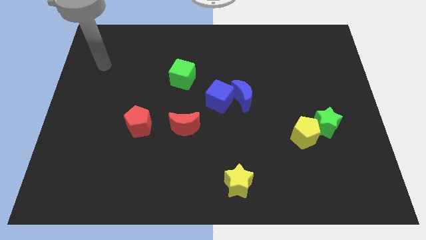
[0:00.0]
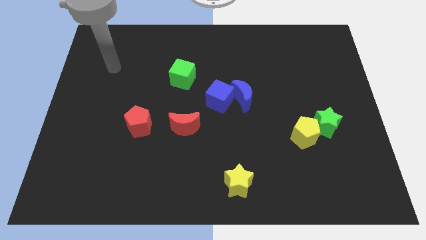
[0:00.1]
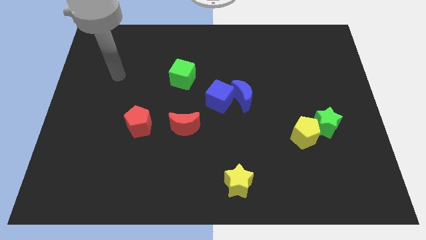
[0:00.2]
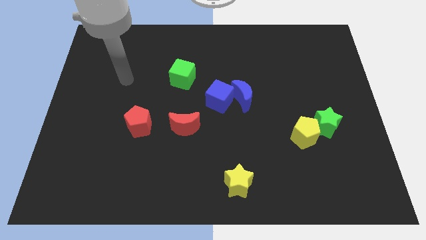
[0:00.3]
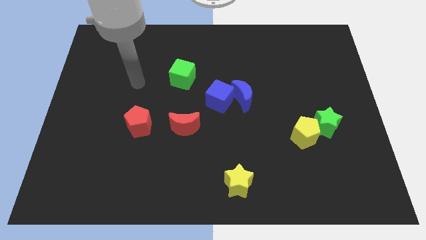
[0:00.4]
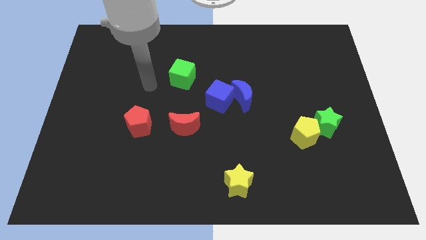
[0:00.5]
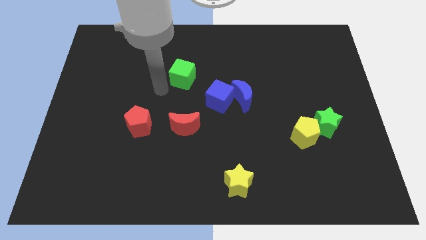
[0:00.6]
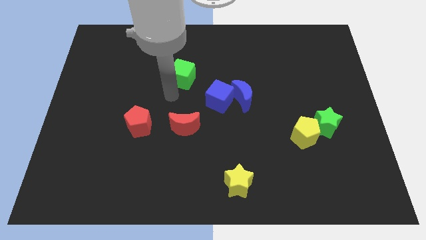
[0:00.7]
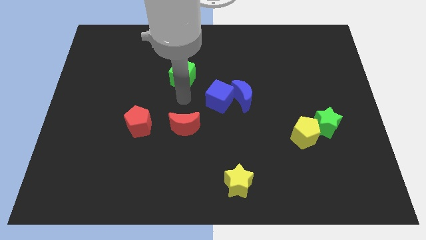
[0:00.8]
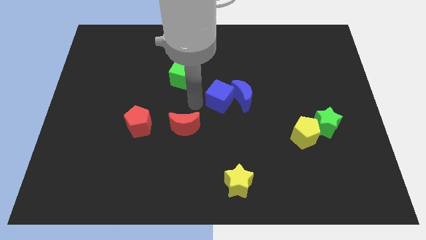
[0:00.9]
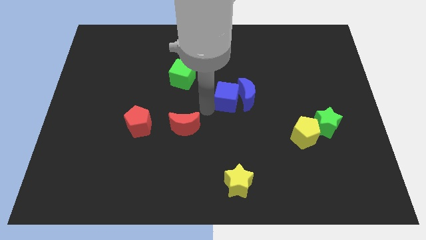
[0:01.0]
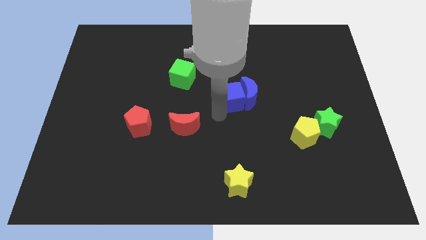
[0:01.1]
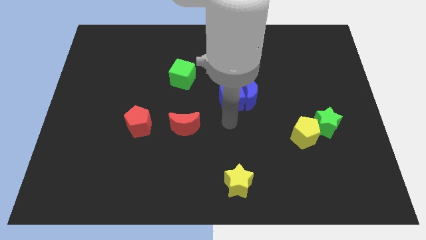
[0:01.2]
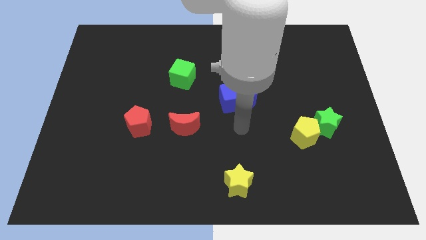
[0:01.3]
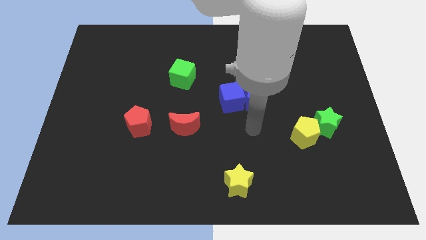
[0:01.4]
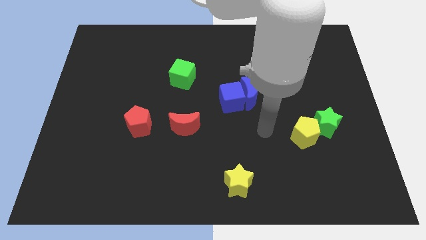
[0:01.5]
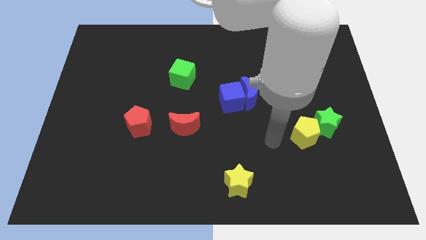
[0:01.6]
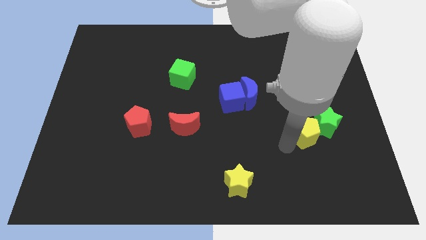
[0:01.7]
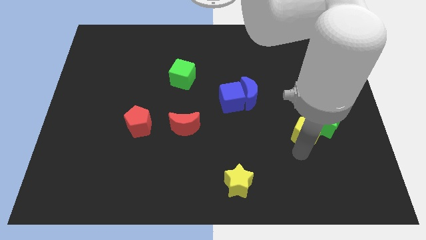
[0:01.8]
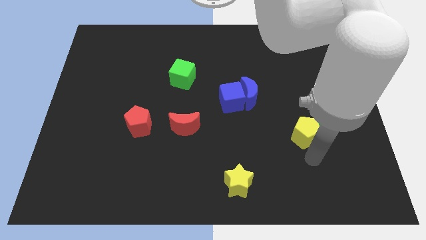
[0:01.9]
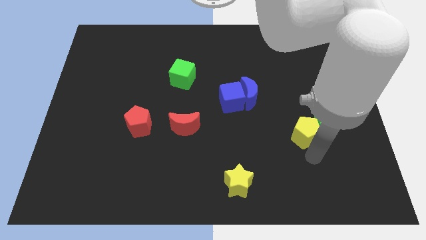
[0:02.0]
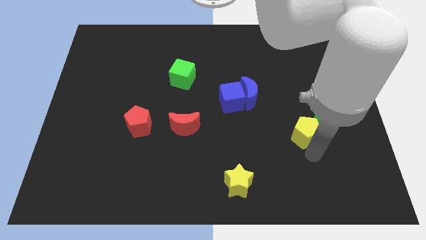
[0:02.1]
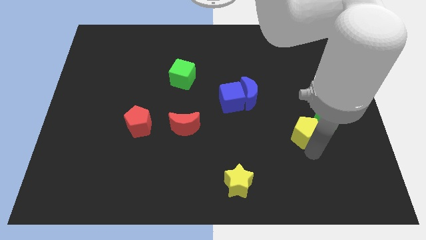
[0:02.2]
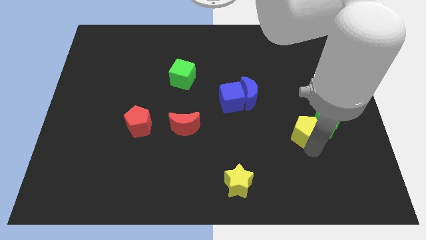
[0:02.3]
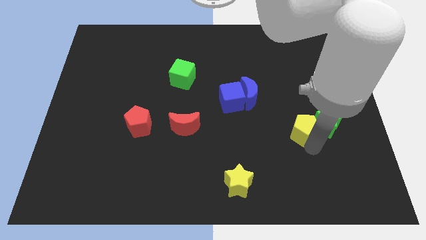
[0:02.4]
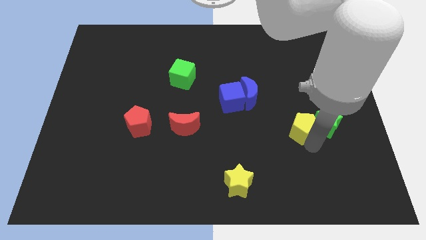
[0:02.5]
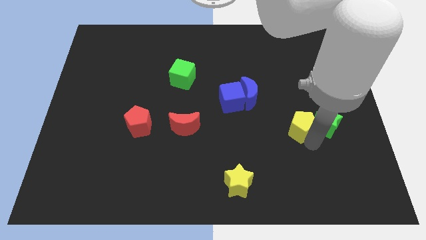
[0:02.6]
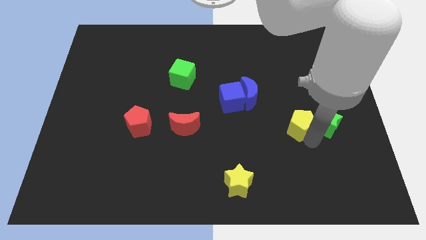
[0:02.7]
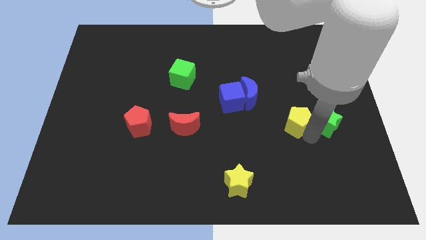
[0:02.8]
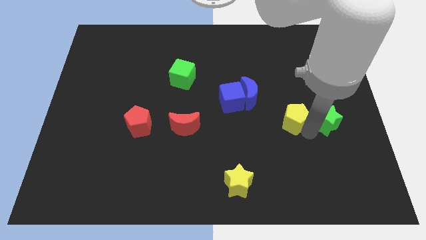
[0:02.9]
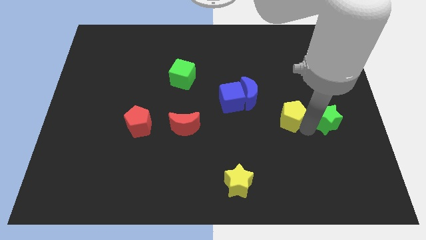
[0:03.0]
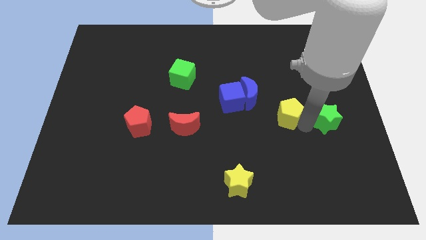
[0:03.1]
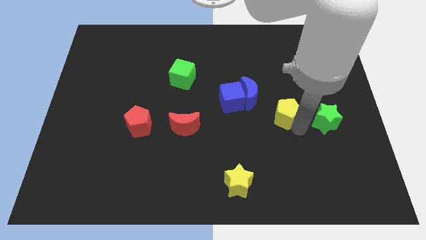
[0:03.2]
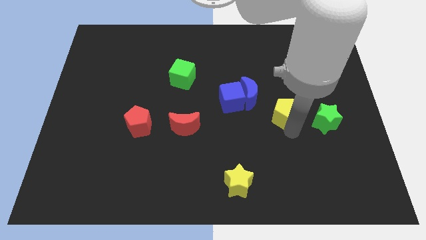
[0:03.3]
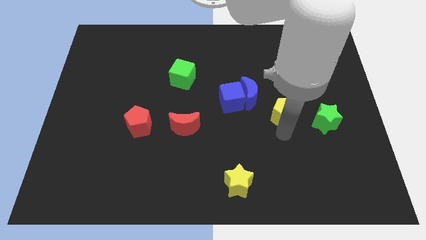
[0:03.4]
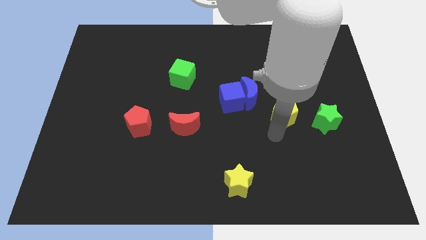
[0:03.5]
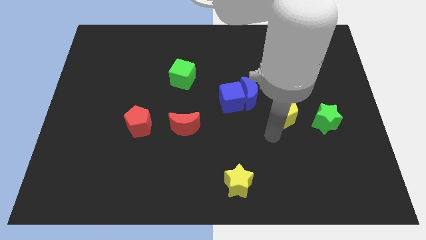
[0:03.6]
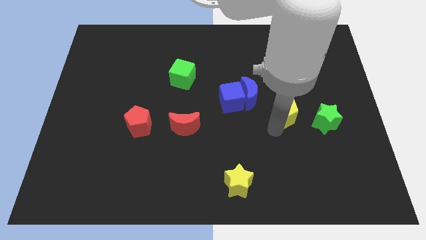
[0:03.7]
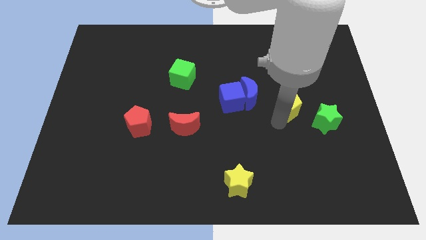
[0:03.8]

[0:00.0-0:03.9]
push the yellow pentagon upwards a bit

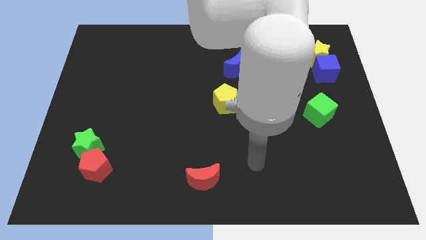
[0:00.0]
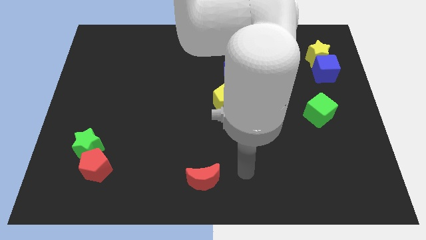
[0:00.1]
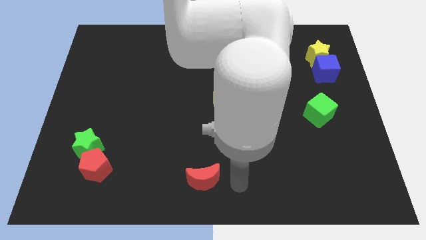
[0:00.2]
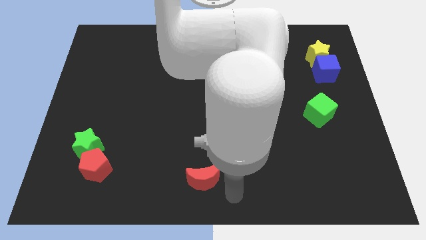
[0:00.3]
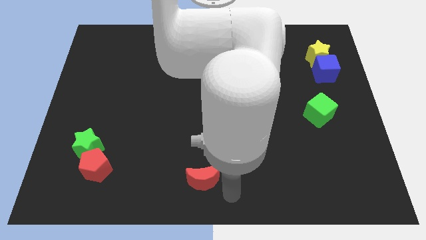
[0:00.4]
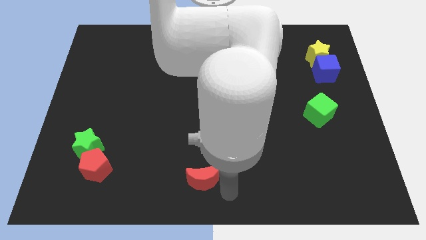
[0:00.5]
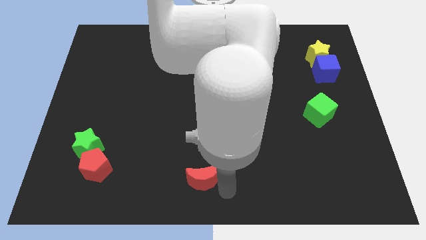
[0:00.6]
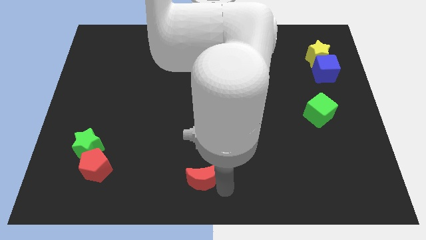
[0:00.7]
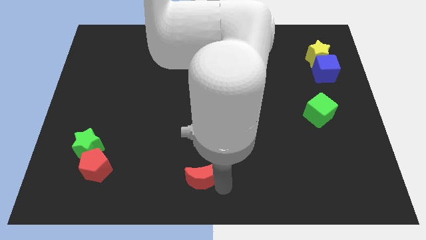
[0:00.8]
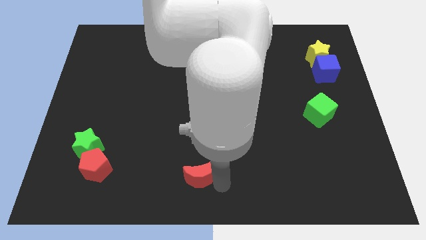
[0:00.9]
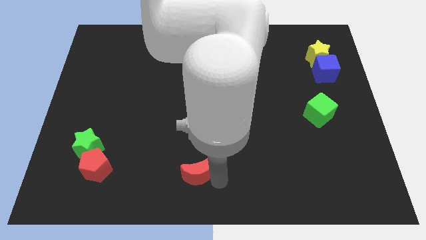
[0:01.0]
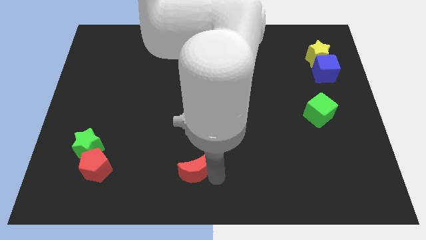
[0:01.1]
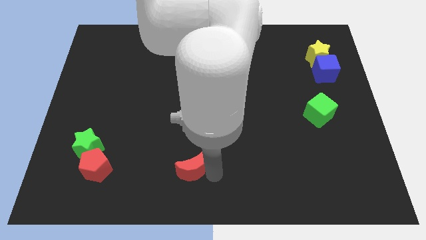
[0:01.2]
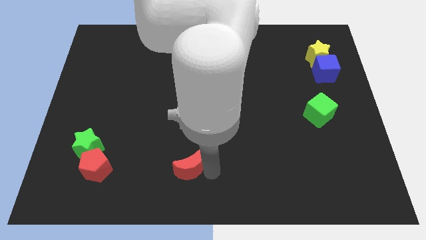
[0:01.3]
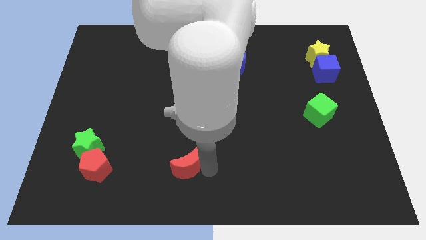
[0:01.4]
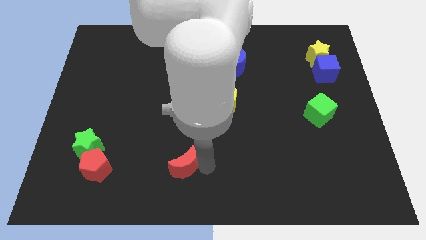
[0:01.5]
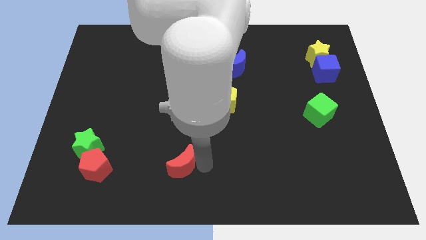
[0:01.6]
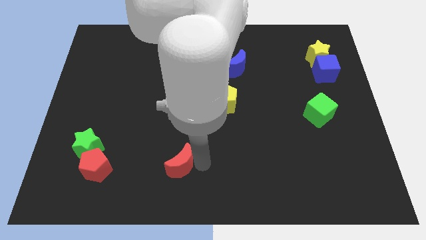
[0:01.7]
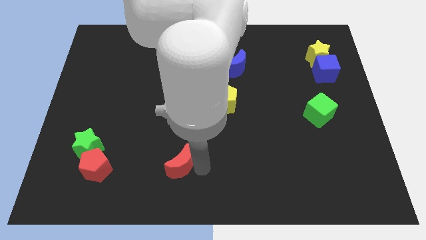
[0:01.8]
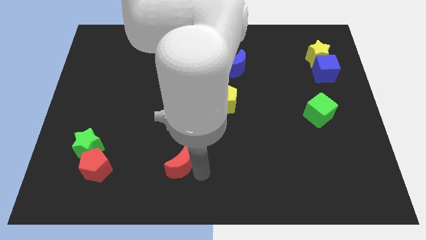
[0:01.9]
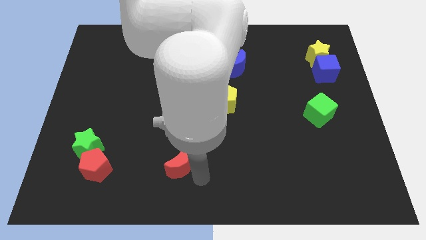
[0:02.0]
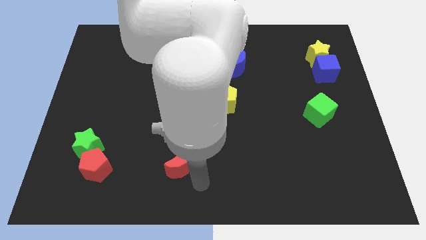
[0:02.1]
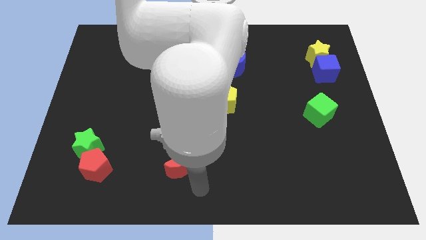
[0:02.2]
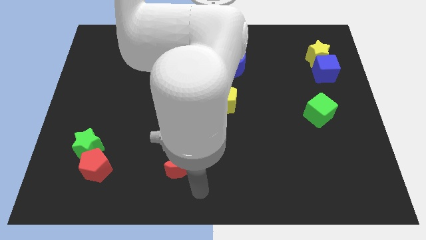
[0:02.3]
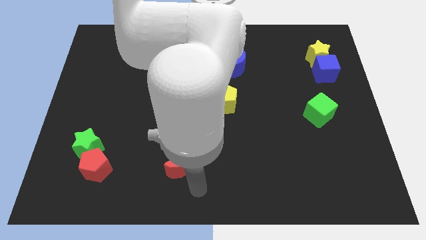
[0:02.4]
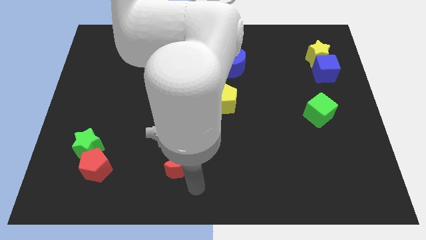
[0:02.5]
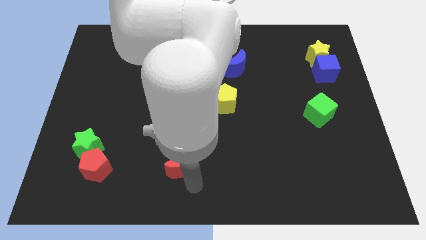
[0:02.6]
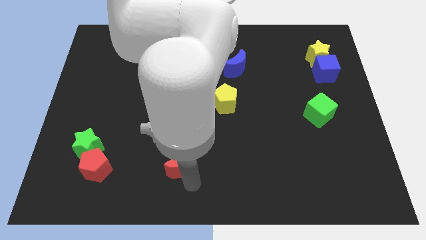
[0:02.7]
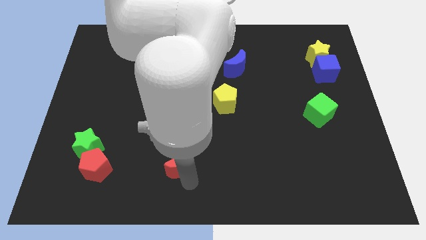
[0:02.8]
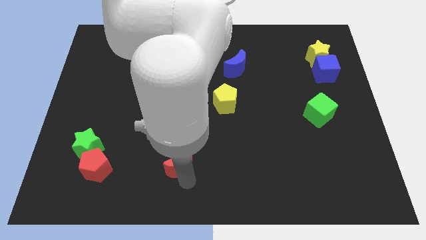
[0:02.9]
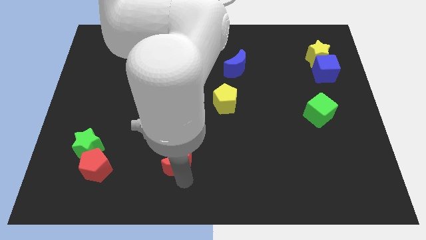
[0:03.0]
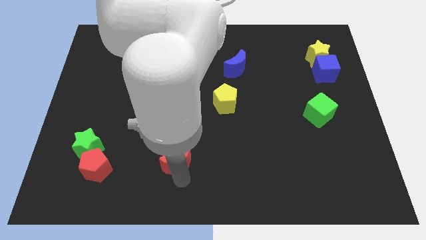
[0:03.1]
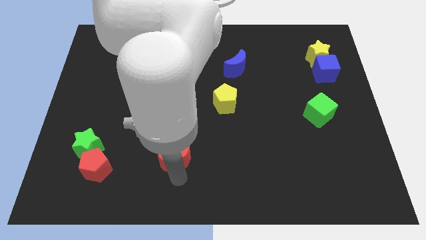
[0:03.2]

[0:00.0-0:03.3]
slightly slide the red moon diagonally up and to the left

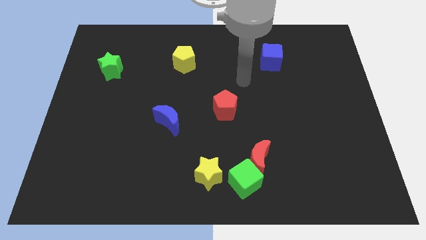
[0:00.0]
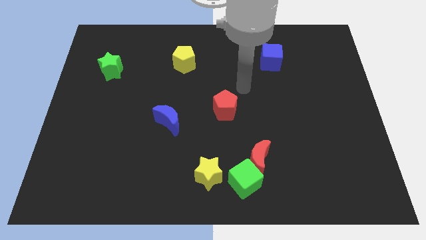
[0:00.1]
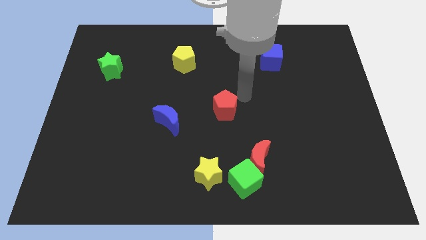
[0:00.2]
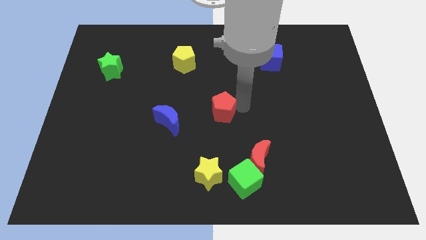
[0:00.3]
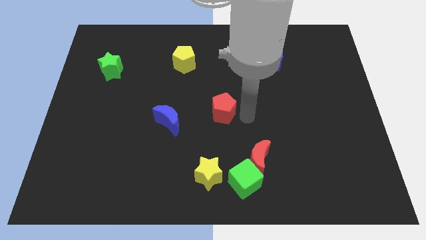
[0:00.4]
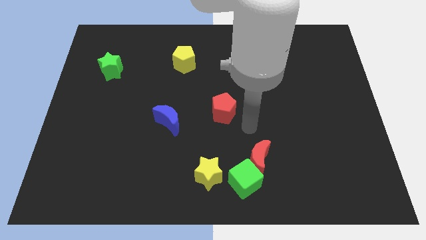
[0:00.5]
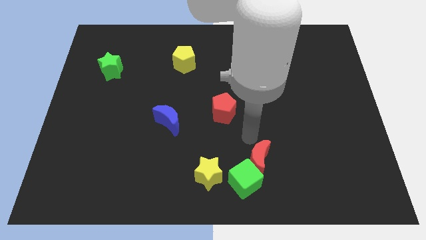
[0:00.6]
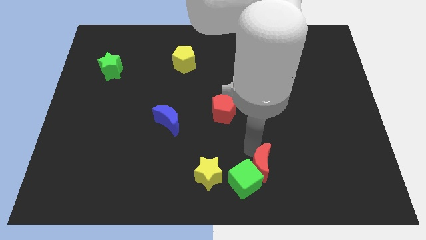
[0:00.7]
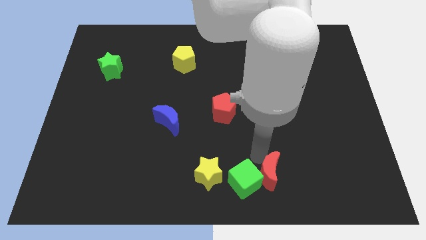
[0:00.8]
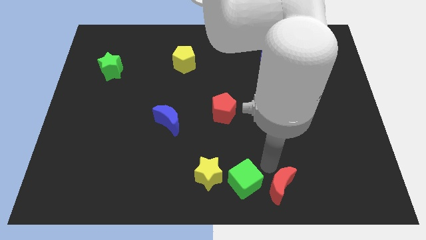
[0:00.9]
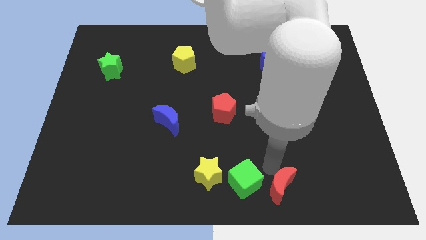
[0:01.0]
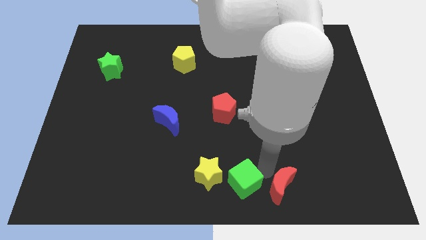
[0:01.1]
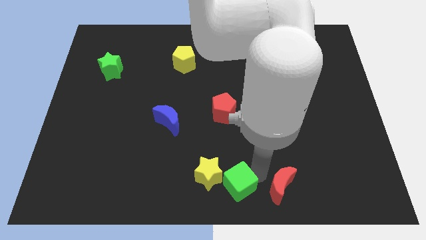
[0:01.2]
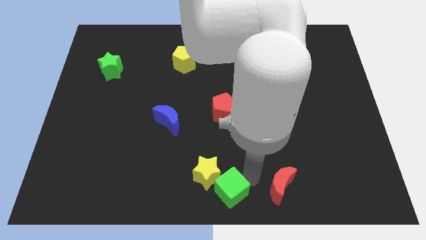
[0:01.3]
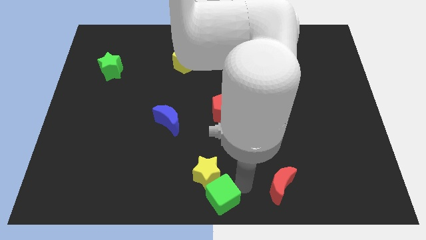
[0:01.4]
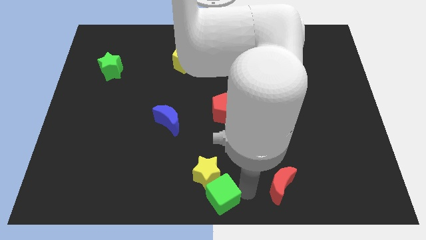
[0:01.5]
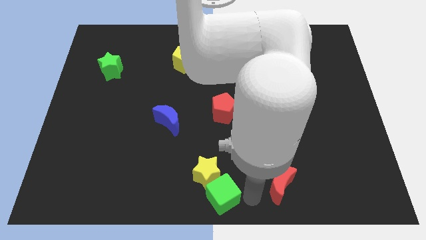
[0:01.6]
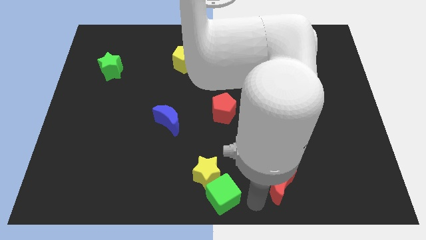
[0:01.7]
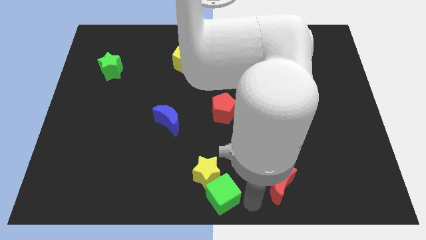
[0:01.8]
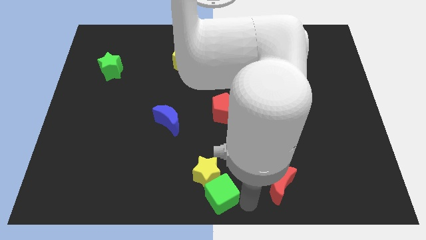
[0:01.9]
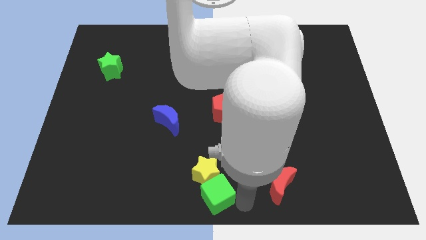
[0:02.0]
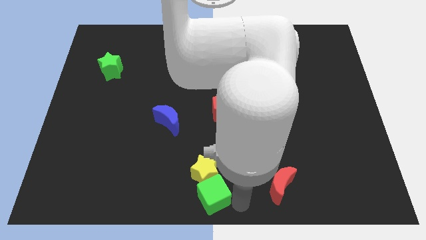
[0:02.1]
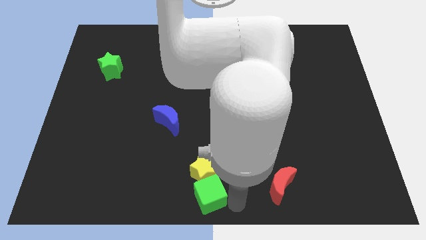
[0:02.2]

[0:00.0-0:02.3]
push the green cube a bit to the left
